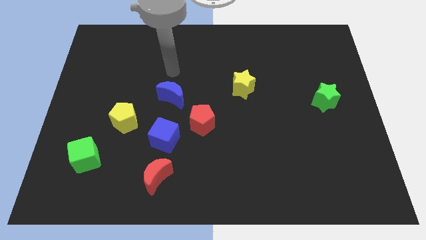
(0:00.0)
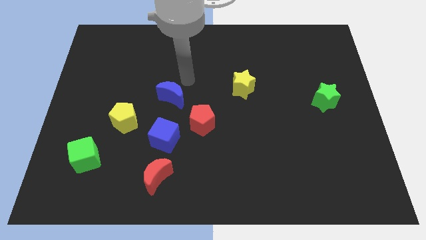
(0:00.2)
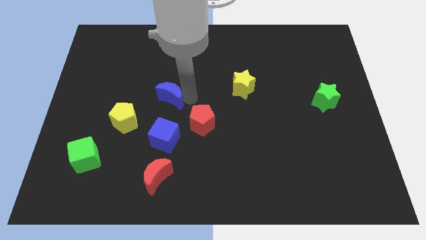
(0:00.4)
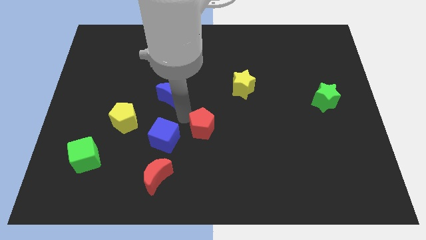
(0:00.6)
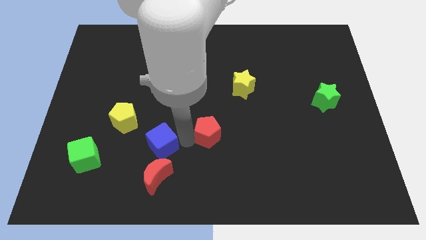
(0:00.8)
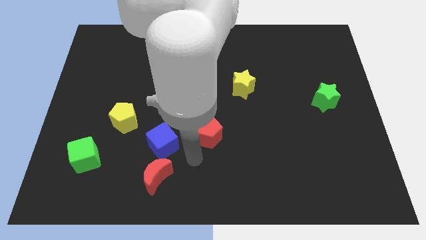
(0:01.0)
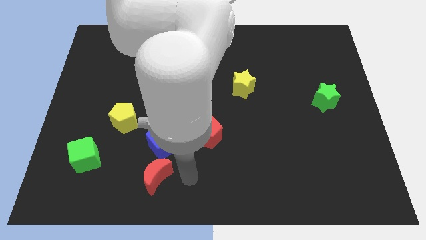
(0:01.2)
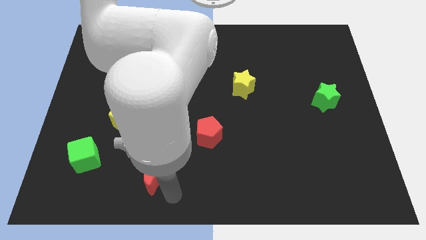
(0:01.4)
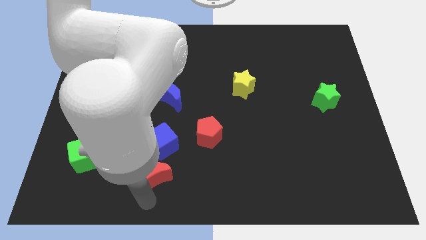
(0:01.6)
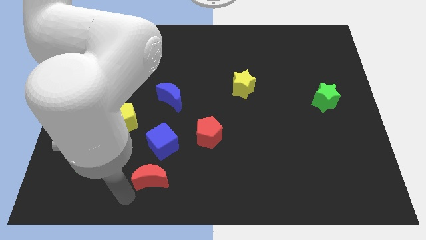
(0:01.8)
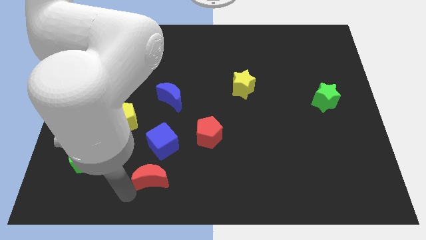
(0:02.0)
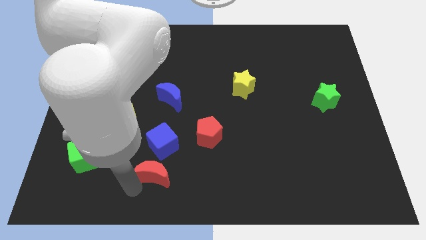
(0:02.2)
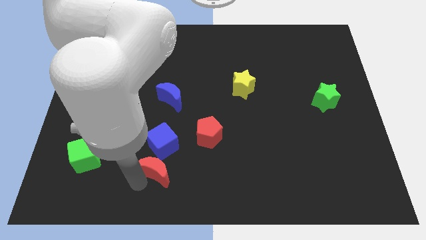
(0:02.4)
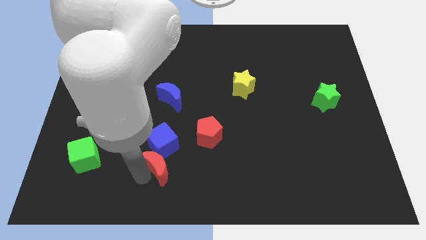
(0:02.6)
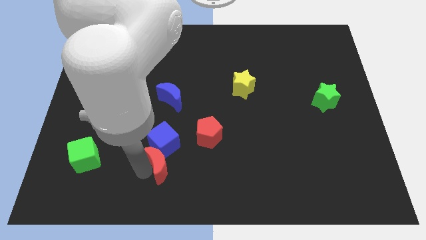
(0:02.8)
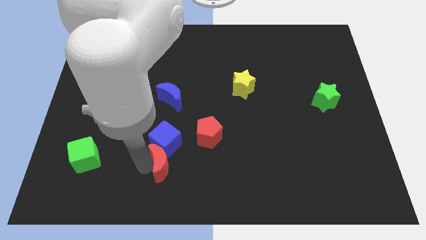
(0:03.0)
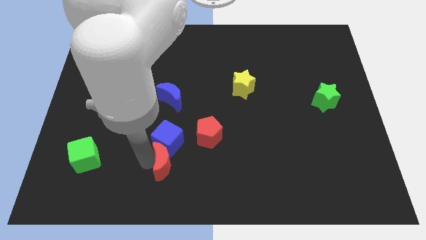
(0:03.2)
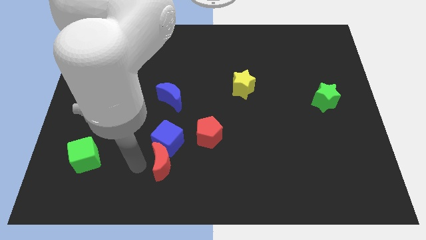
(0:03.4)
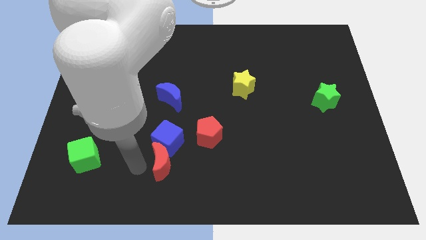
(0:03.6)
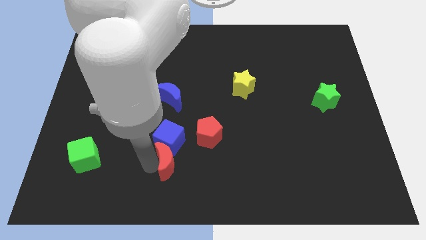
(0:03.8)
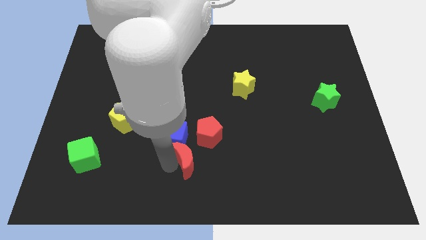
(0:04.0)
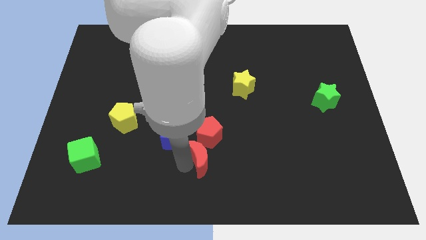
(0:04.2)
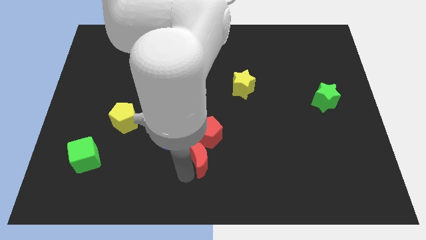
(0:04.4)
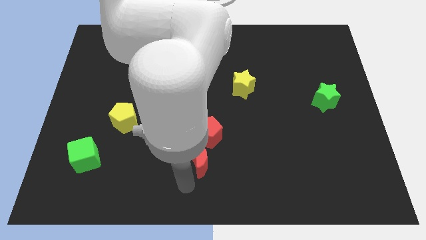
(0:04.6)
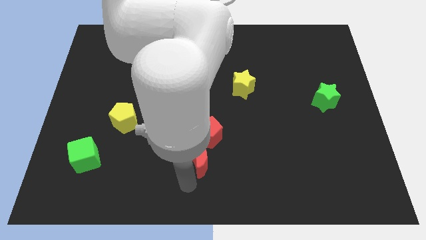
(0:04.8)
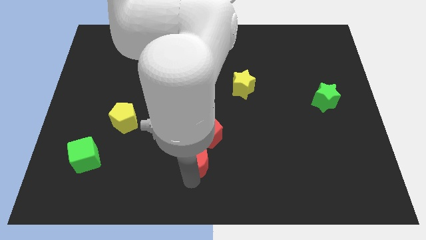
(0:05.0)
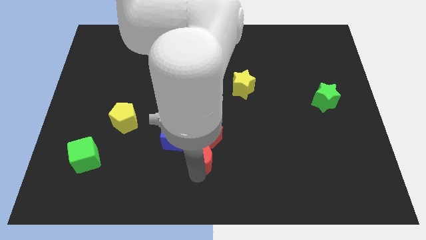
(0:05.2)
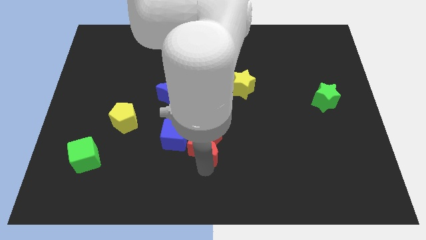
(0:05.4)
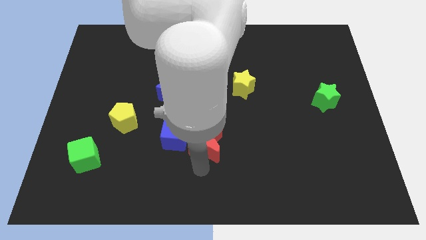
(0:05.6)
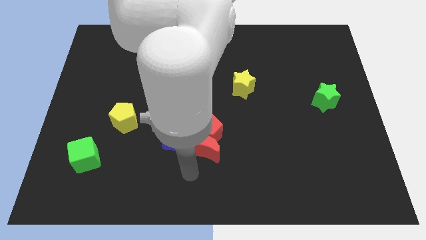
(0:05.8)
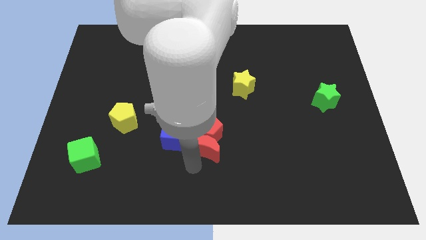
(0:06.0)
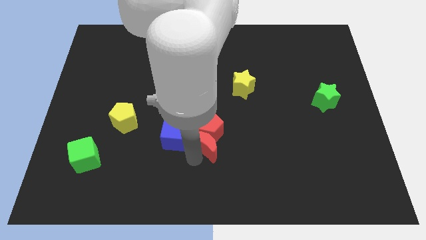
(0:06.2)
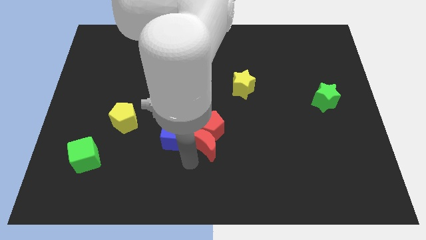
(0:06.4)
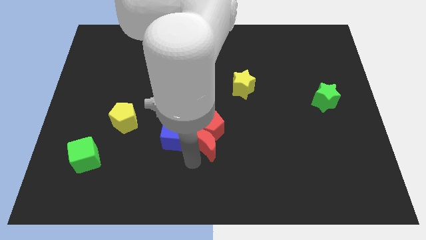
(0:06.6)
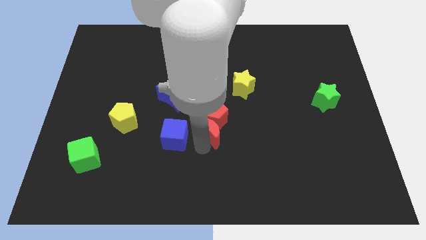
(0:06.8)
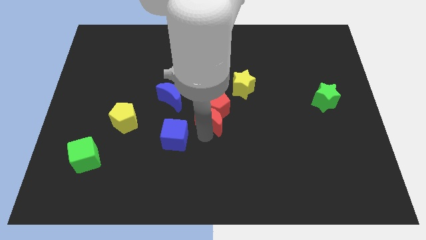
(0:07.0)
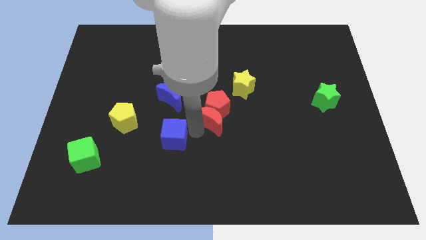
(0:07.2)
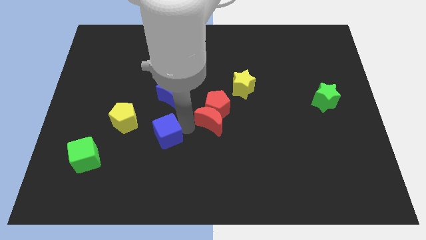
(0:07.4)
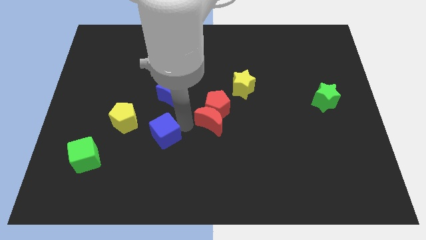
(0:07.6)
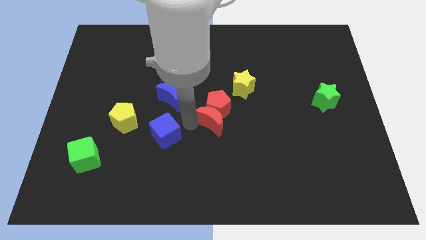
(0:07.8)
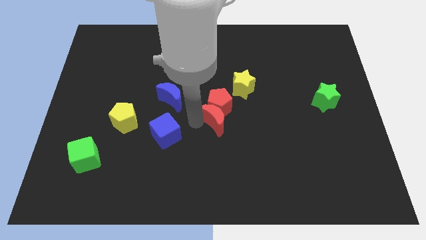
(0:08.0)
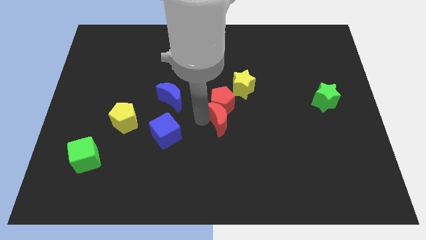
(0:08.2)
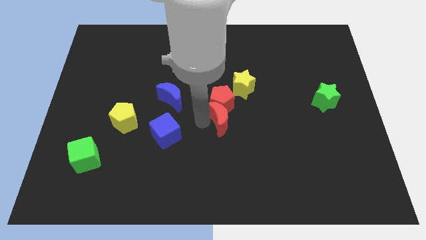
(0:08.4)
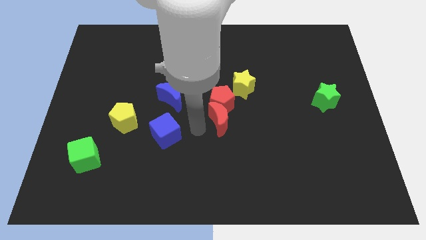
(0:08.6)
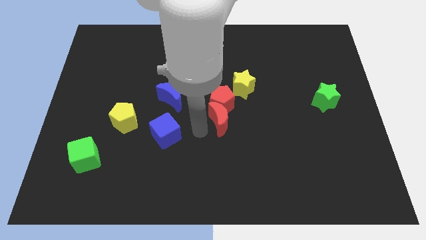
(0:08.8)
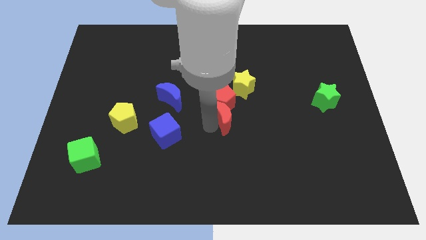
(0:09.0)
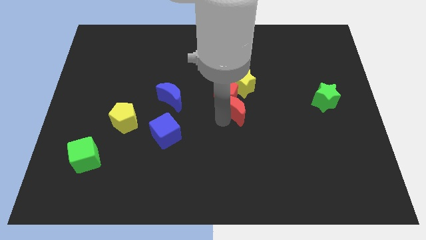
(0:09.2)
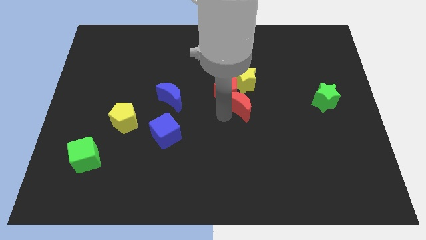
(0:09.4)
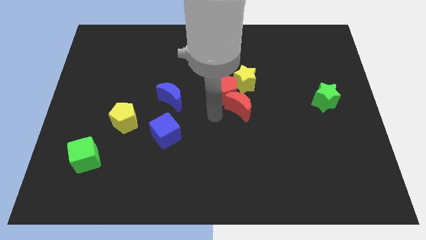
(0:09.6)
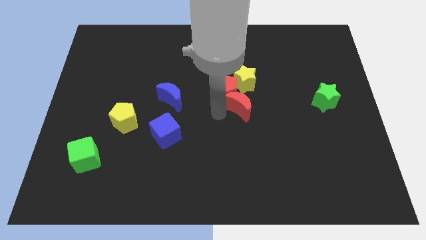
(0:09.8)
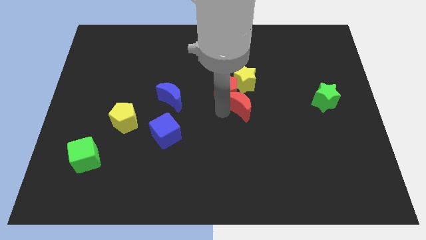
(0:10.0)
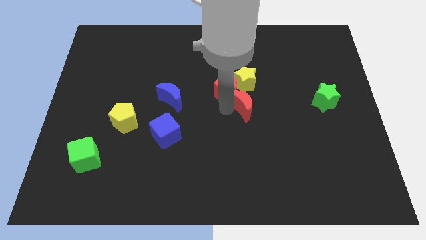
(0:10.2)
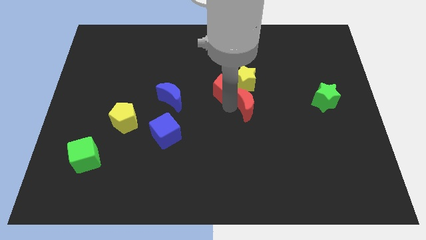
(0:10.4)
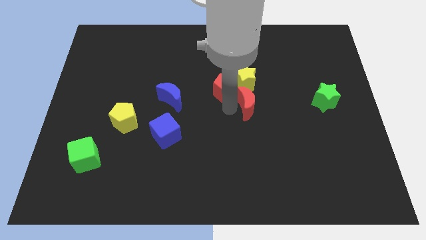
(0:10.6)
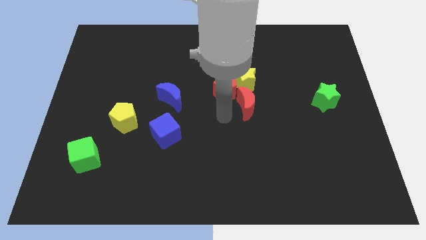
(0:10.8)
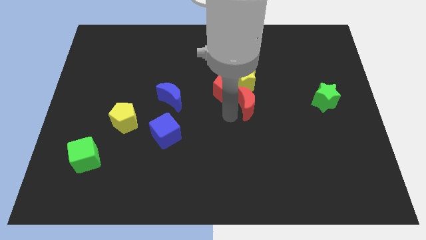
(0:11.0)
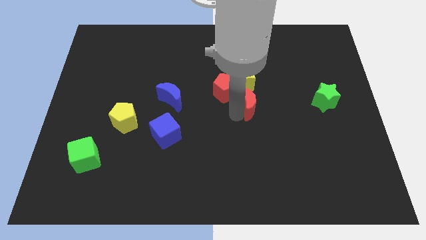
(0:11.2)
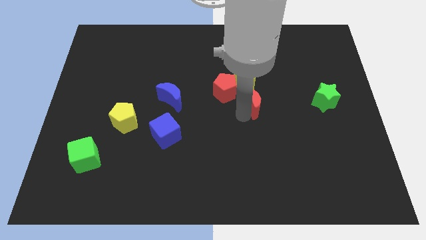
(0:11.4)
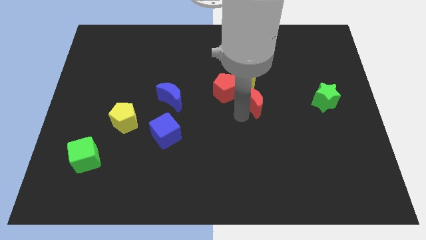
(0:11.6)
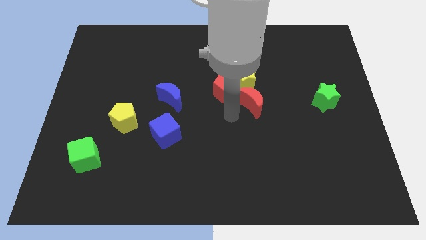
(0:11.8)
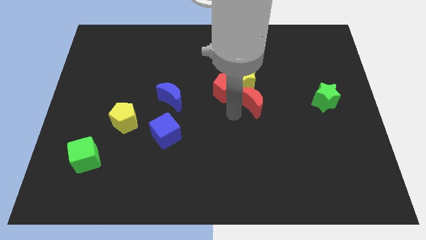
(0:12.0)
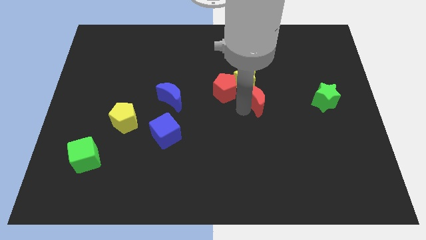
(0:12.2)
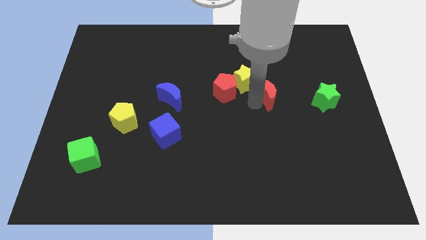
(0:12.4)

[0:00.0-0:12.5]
push the red moon to the right side of the yellow star

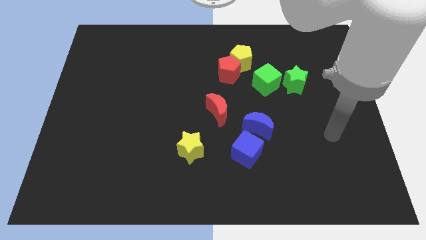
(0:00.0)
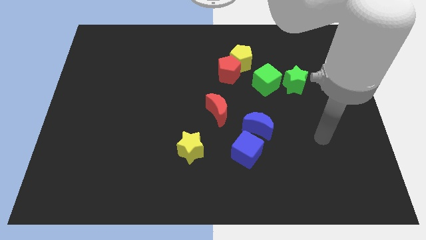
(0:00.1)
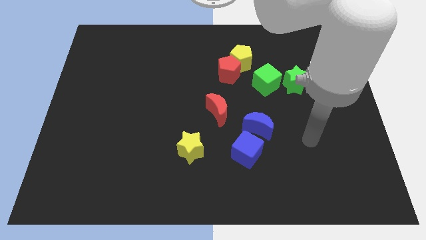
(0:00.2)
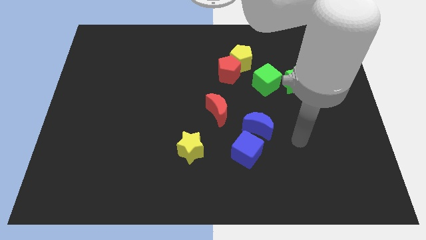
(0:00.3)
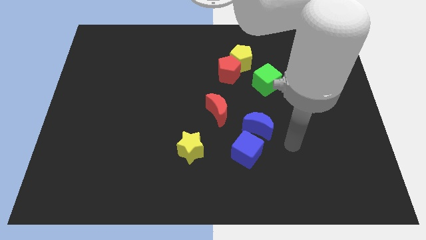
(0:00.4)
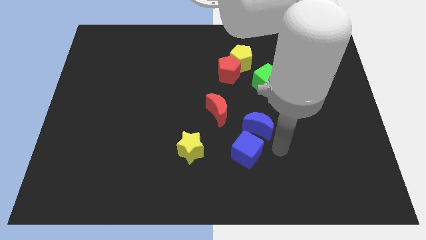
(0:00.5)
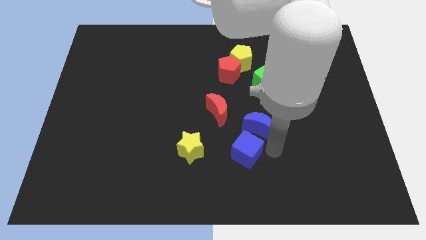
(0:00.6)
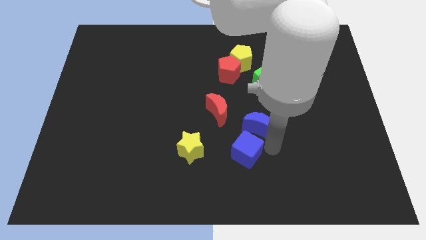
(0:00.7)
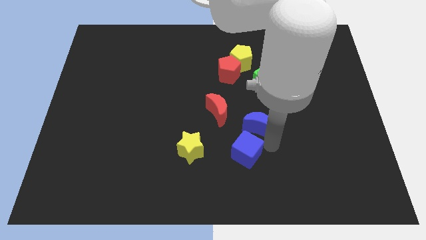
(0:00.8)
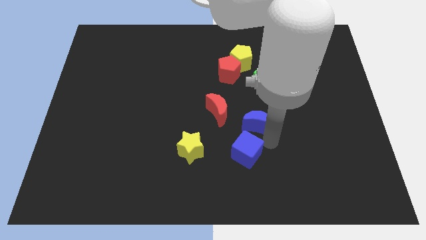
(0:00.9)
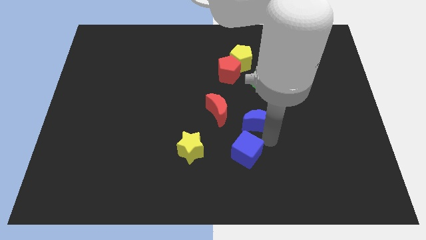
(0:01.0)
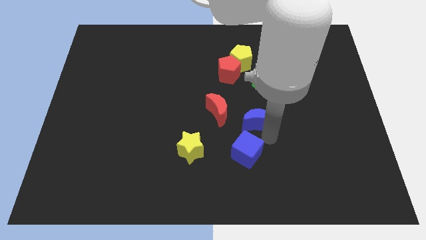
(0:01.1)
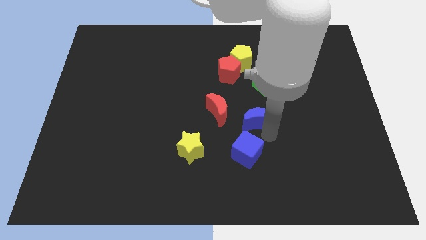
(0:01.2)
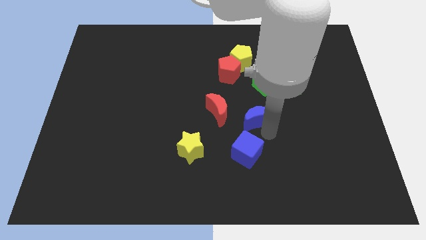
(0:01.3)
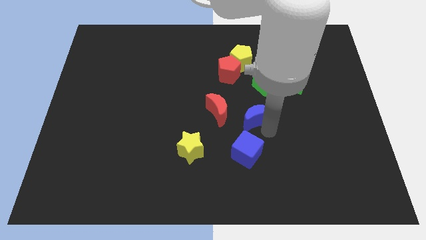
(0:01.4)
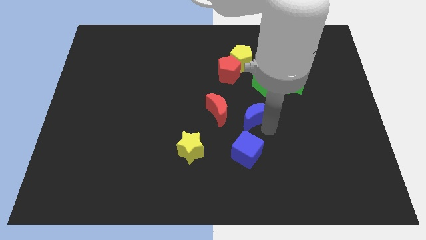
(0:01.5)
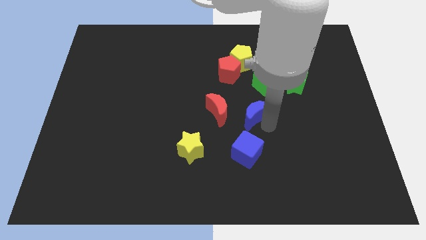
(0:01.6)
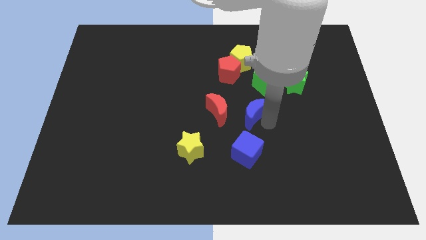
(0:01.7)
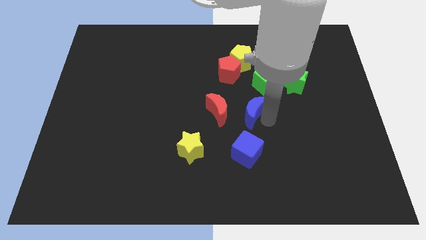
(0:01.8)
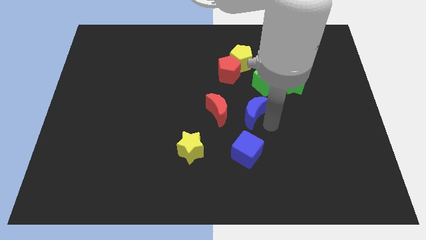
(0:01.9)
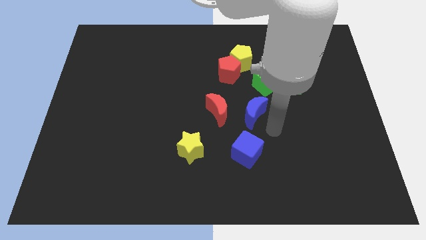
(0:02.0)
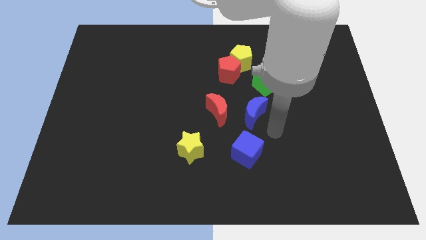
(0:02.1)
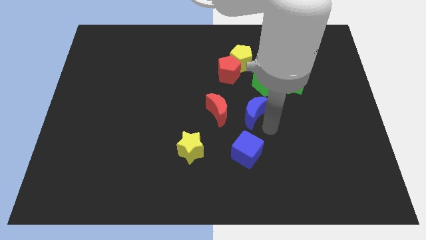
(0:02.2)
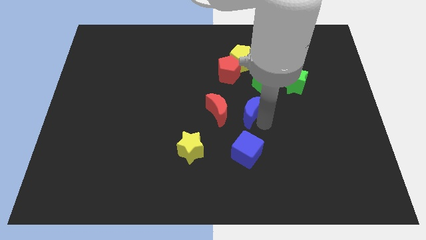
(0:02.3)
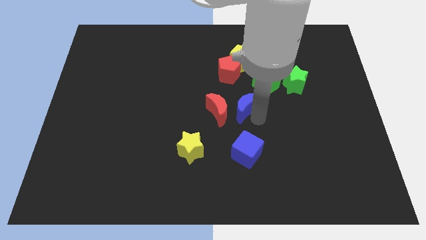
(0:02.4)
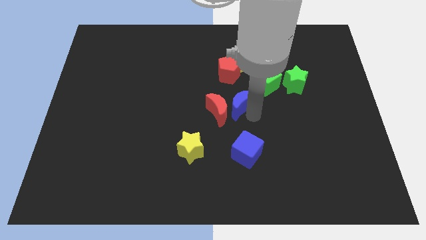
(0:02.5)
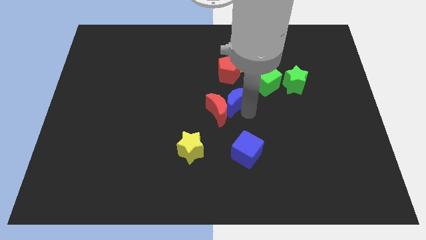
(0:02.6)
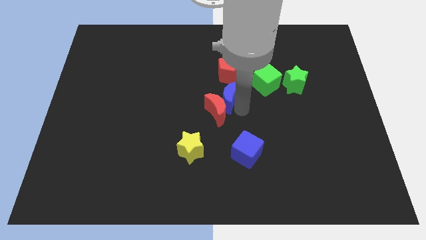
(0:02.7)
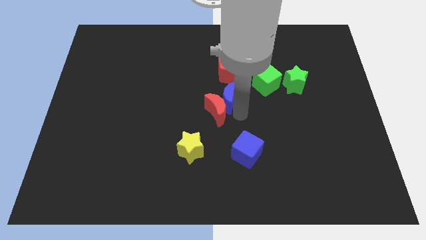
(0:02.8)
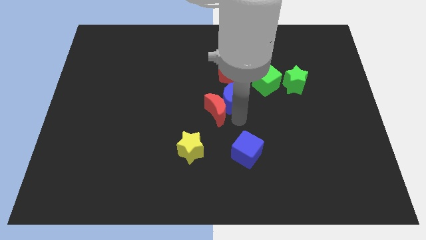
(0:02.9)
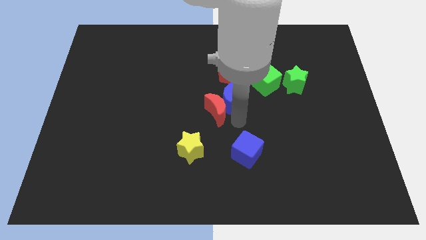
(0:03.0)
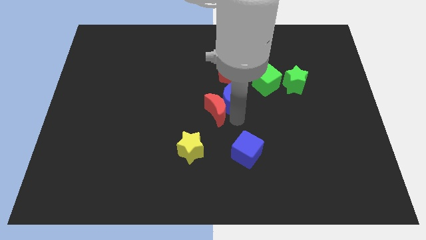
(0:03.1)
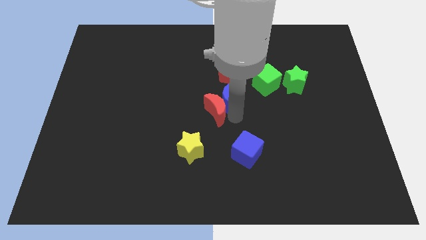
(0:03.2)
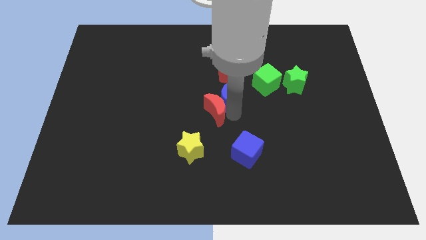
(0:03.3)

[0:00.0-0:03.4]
slide the blue moon to the left of the green cube
